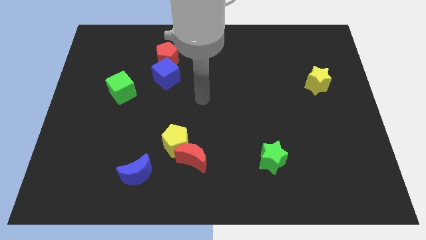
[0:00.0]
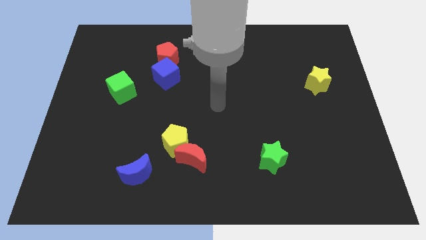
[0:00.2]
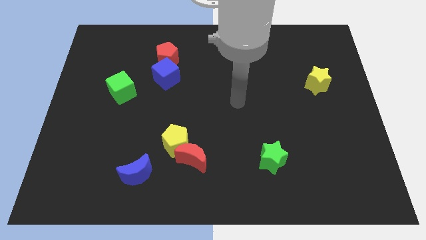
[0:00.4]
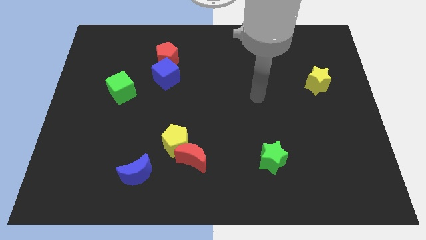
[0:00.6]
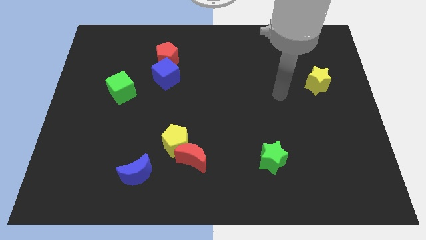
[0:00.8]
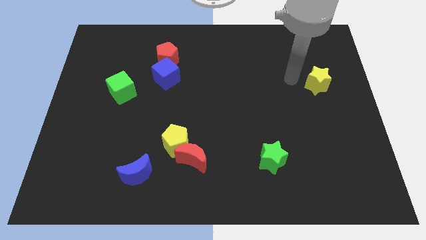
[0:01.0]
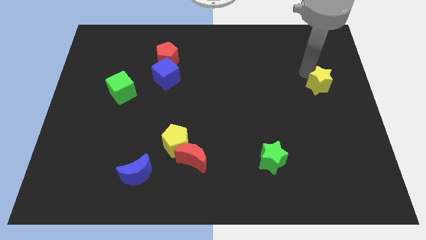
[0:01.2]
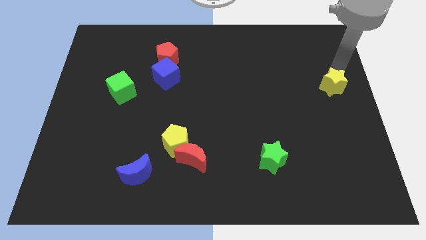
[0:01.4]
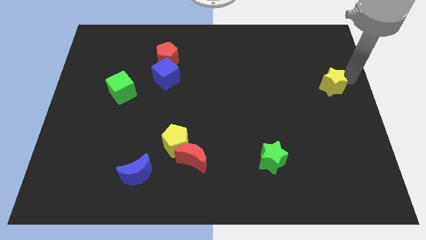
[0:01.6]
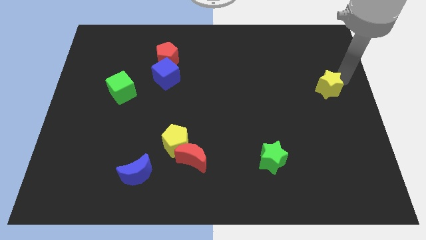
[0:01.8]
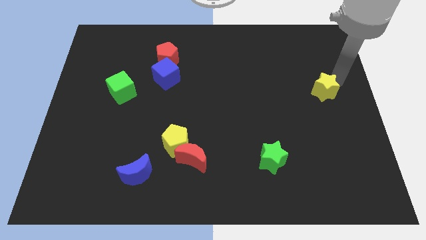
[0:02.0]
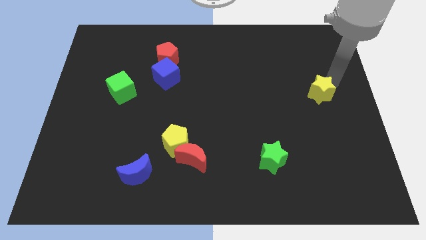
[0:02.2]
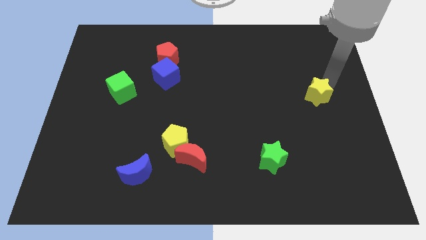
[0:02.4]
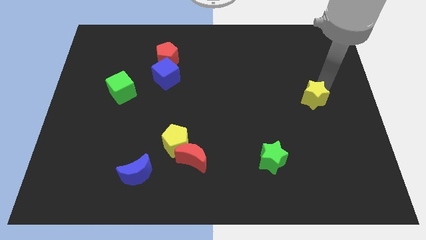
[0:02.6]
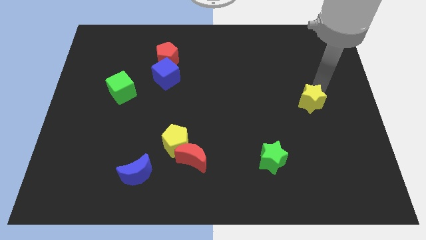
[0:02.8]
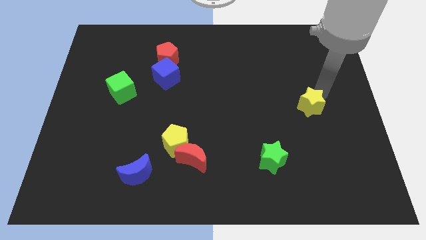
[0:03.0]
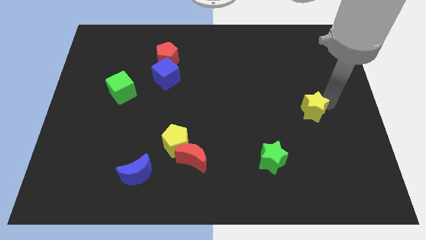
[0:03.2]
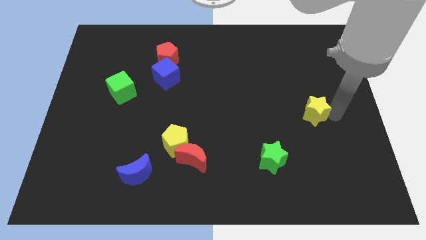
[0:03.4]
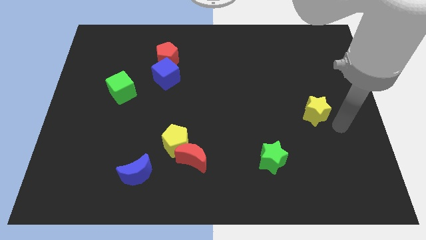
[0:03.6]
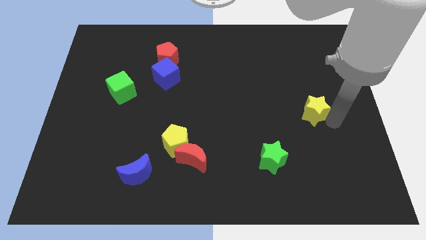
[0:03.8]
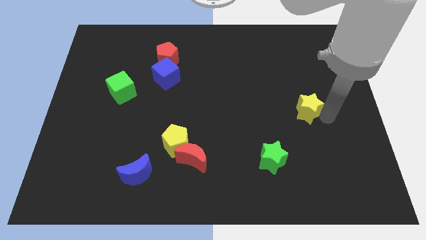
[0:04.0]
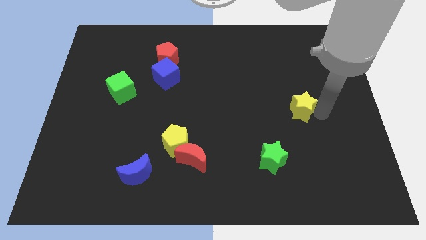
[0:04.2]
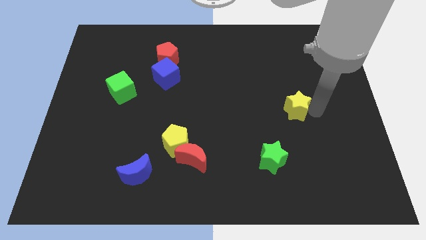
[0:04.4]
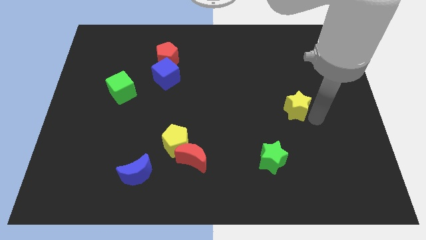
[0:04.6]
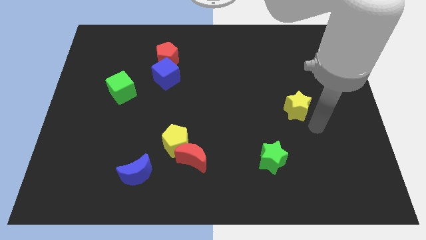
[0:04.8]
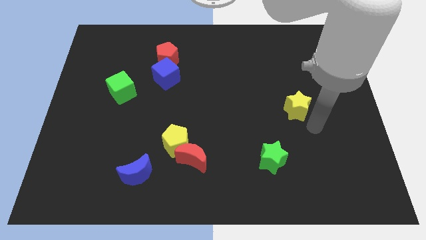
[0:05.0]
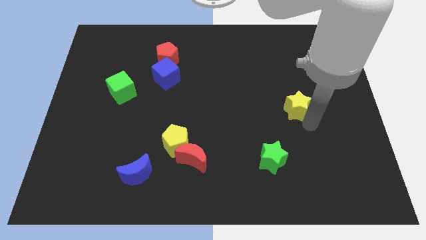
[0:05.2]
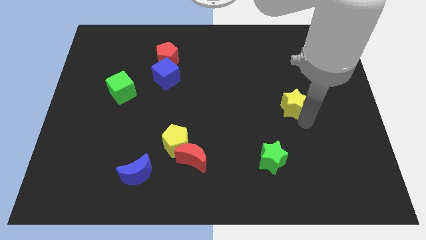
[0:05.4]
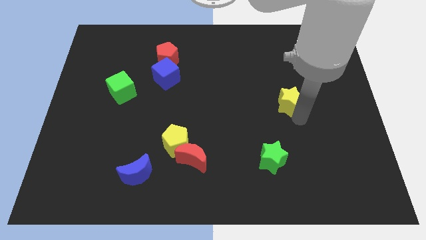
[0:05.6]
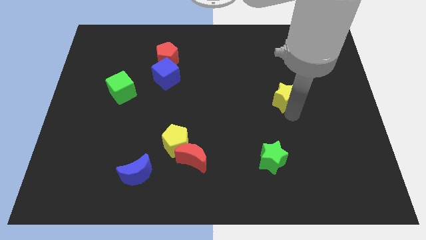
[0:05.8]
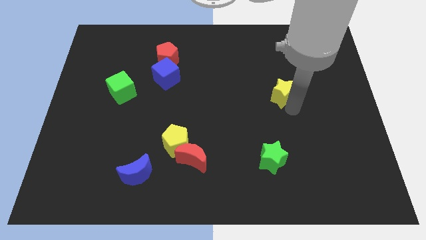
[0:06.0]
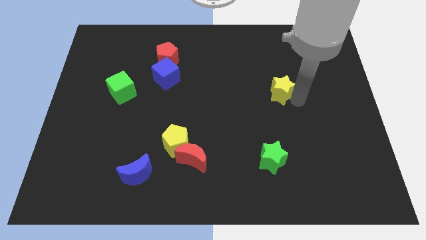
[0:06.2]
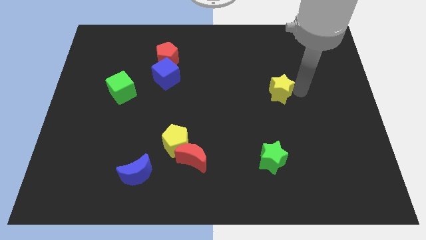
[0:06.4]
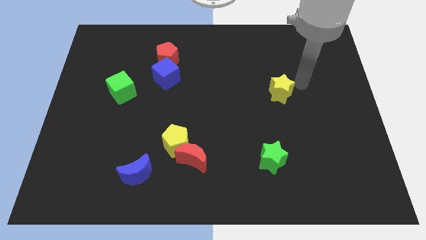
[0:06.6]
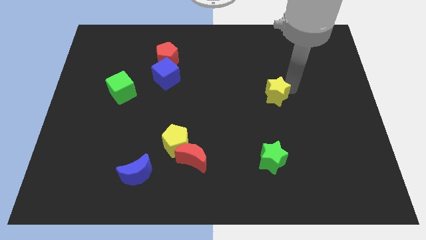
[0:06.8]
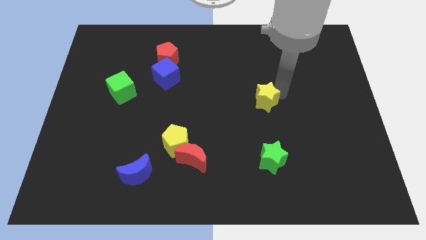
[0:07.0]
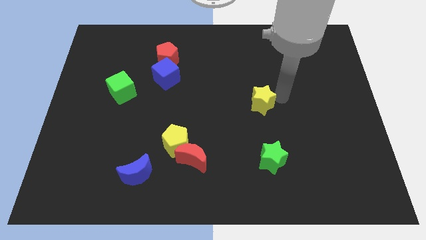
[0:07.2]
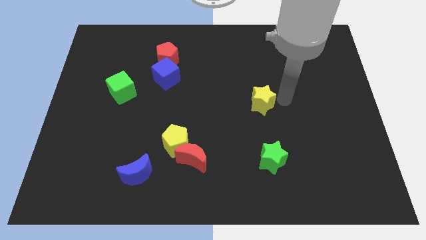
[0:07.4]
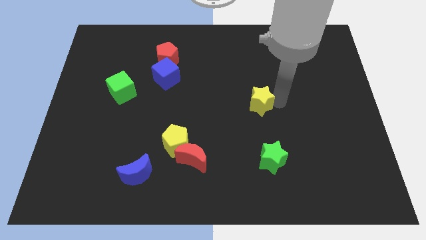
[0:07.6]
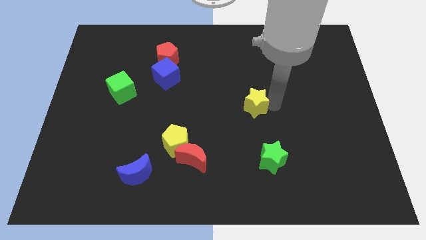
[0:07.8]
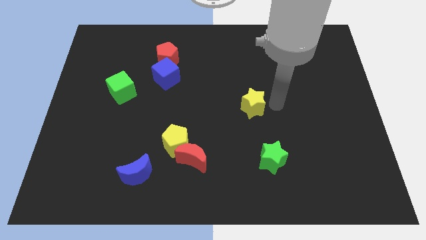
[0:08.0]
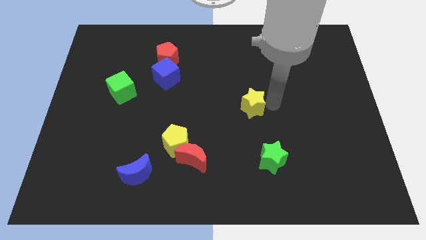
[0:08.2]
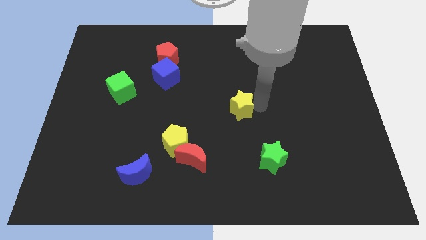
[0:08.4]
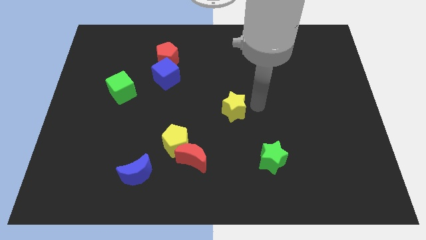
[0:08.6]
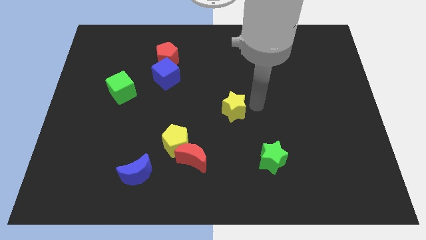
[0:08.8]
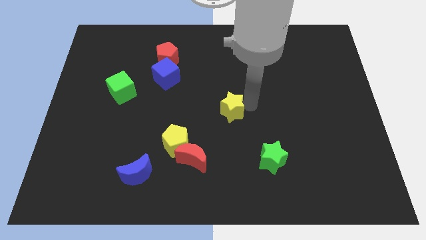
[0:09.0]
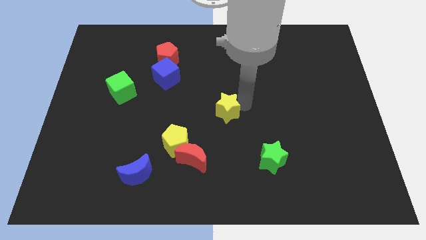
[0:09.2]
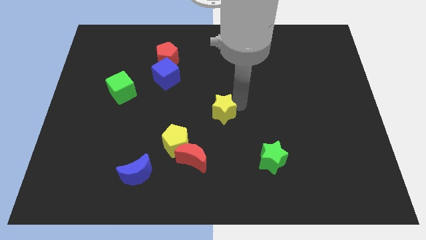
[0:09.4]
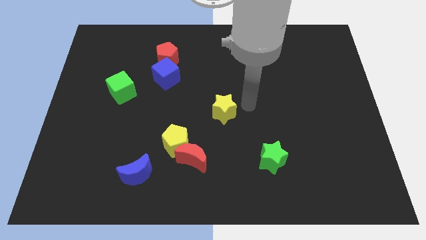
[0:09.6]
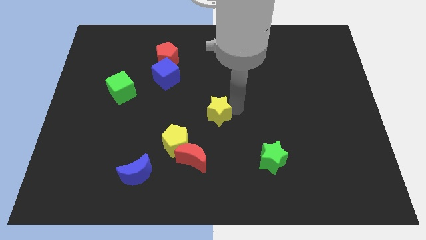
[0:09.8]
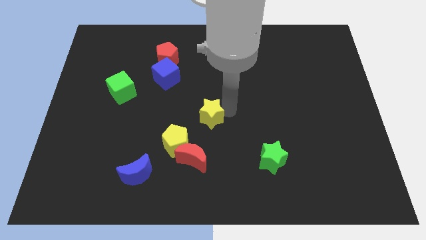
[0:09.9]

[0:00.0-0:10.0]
slide the yellow star above the red moon

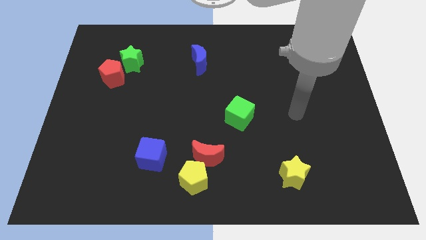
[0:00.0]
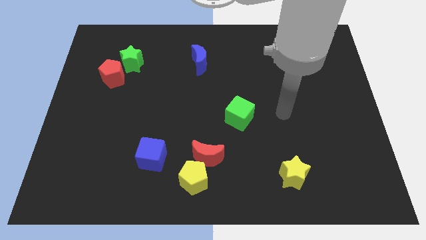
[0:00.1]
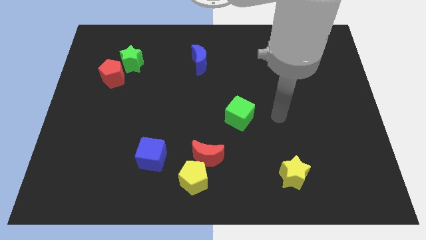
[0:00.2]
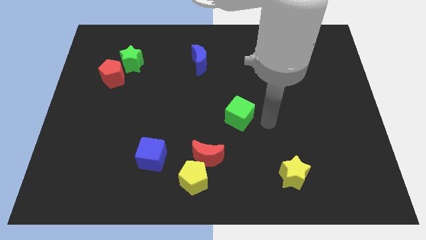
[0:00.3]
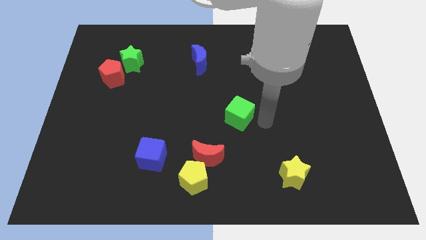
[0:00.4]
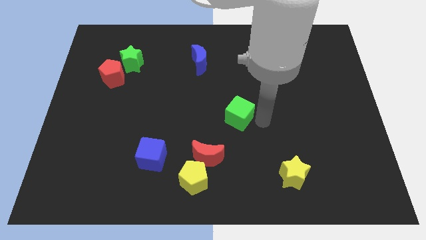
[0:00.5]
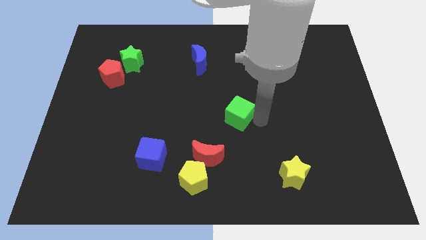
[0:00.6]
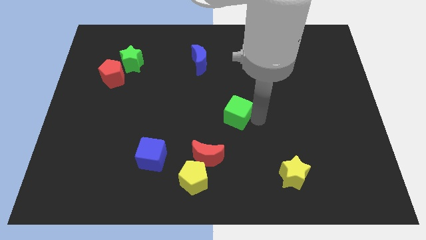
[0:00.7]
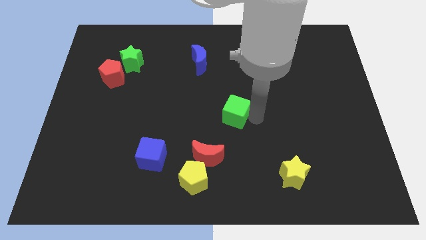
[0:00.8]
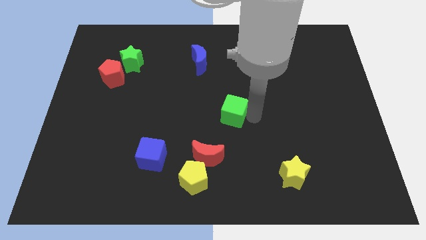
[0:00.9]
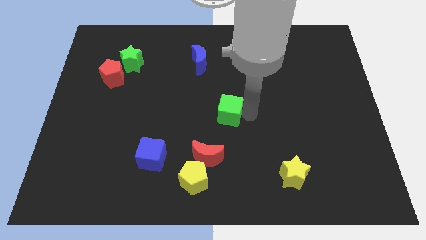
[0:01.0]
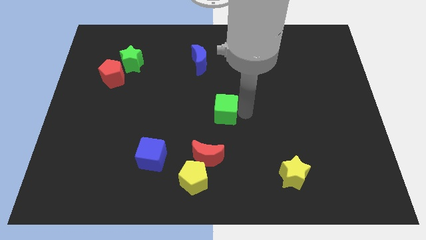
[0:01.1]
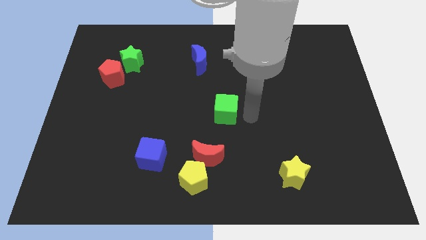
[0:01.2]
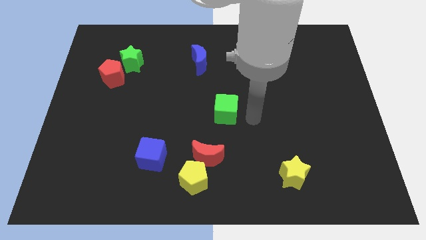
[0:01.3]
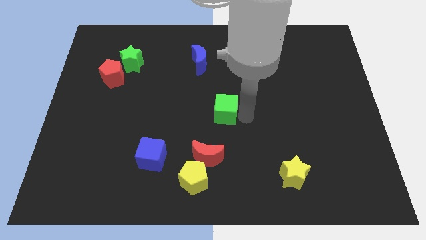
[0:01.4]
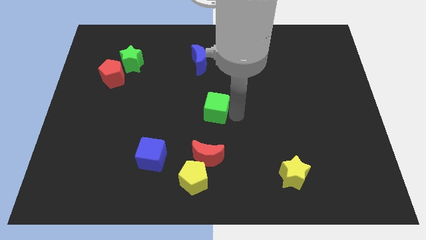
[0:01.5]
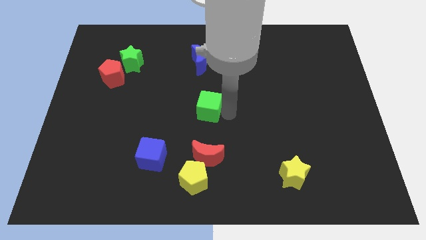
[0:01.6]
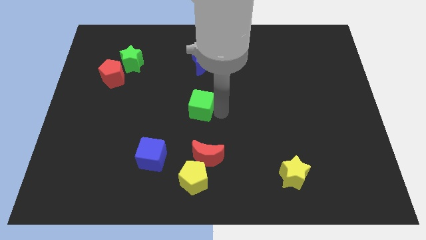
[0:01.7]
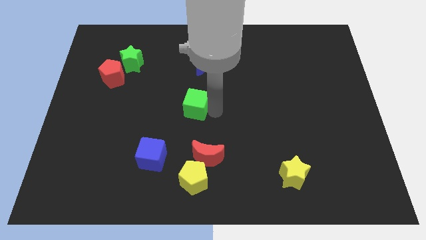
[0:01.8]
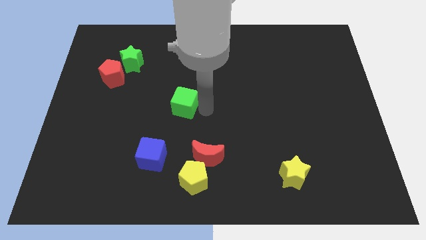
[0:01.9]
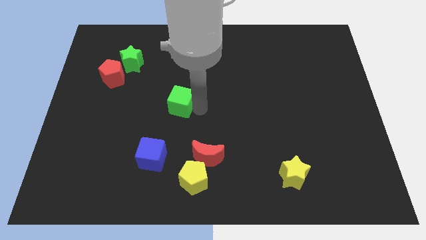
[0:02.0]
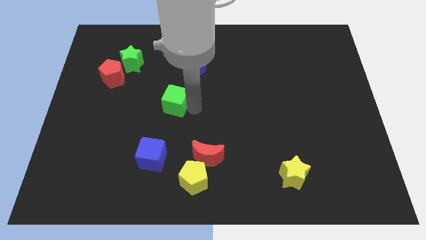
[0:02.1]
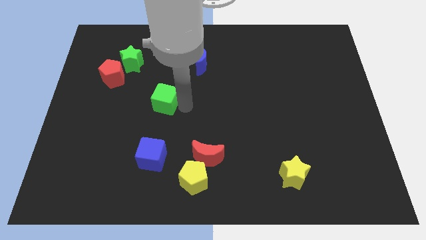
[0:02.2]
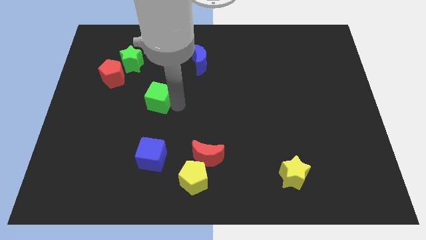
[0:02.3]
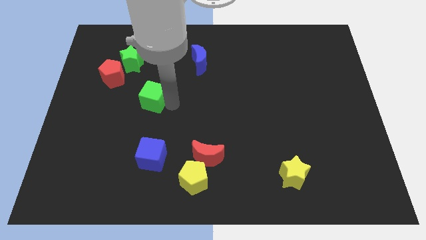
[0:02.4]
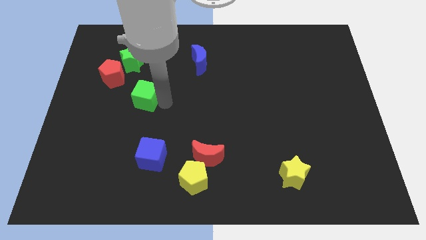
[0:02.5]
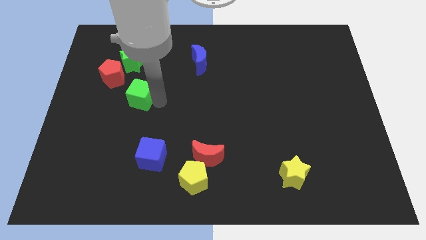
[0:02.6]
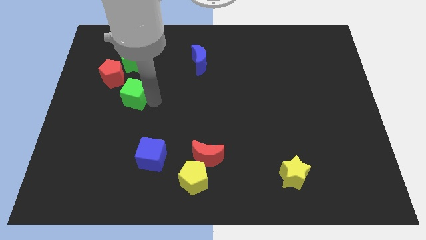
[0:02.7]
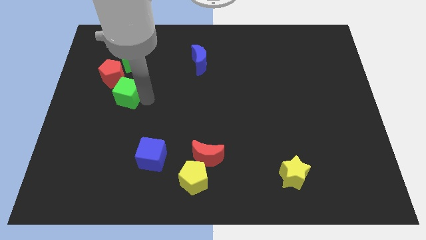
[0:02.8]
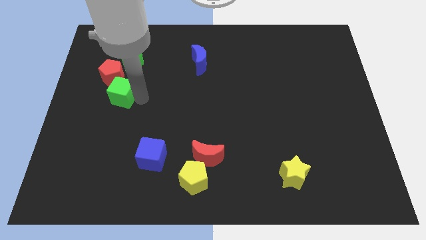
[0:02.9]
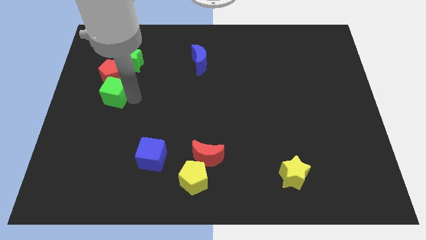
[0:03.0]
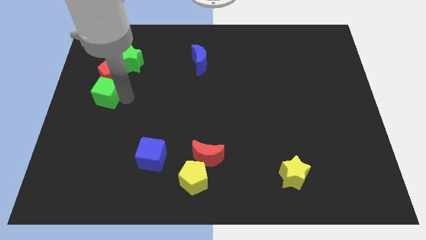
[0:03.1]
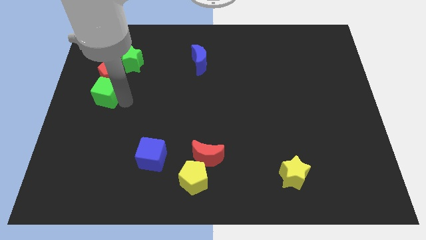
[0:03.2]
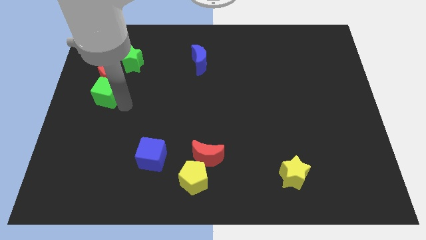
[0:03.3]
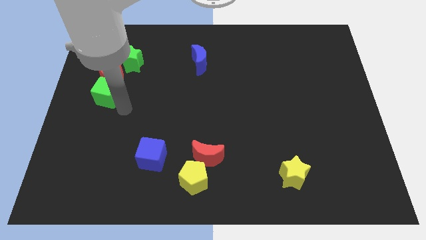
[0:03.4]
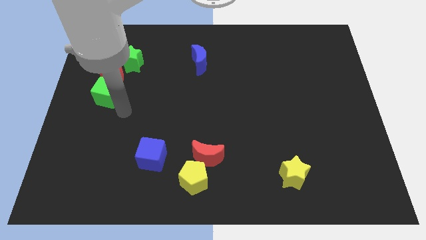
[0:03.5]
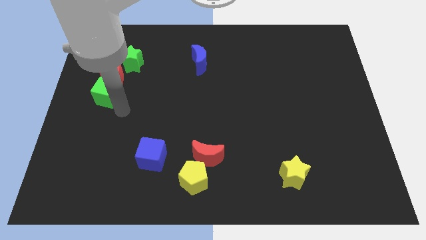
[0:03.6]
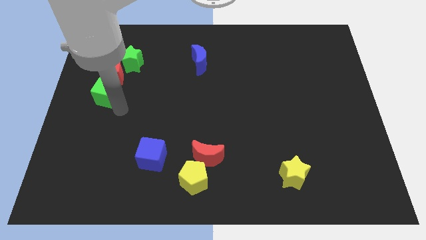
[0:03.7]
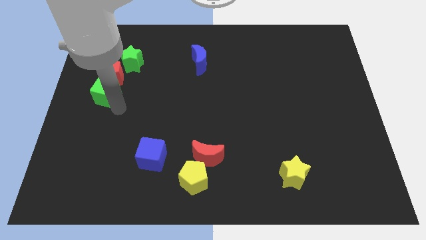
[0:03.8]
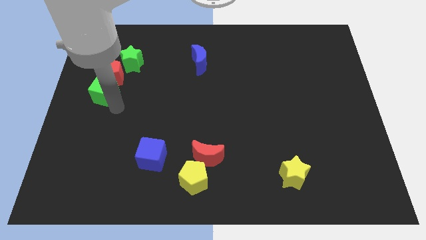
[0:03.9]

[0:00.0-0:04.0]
push the green cube diagonally down and to the left of the green star
